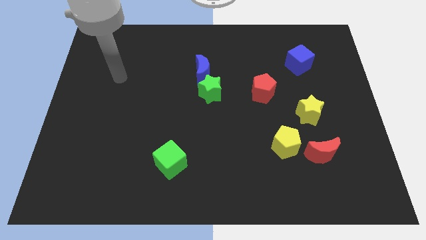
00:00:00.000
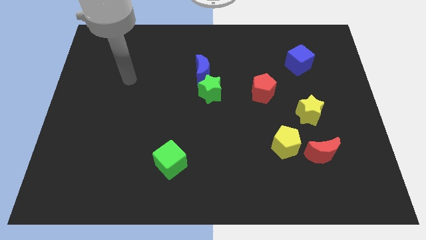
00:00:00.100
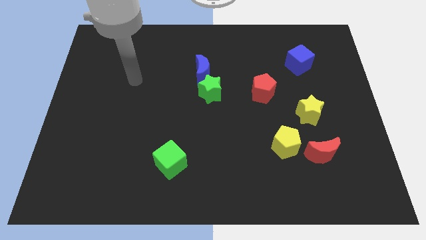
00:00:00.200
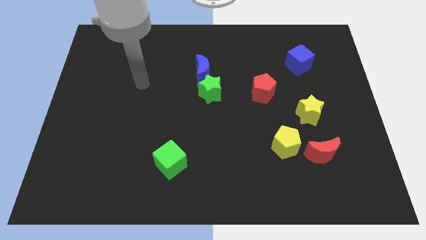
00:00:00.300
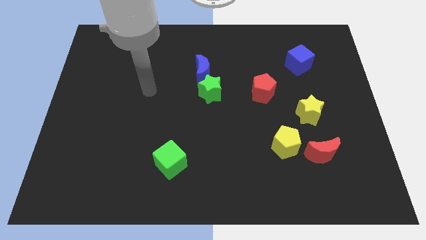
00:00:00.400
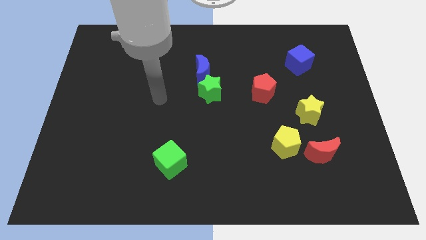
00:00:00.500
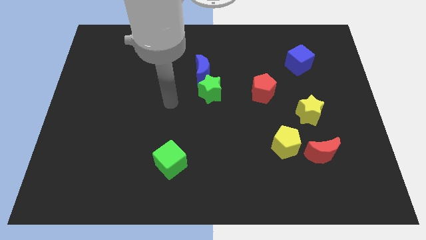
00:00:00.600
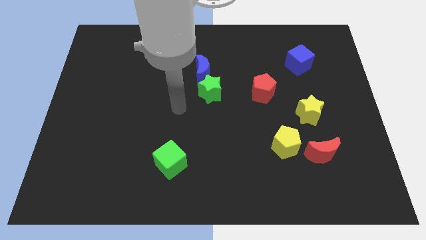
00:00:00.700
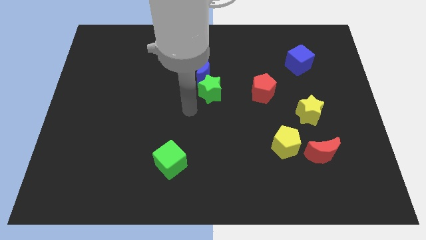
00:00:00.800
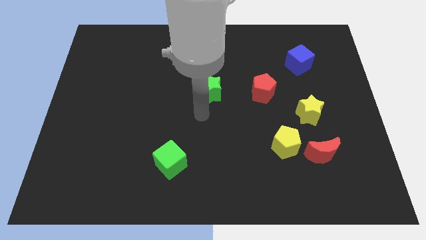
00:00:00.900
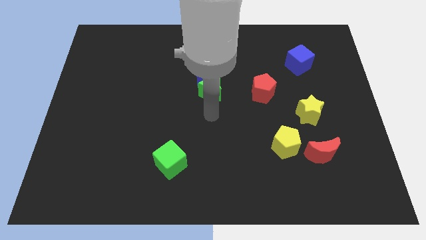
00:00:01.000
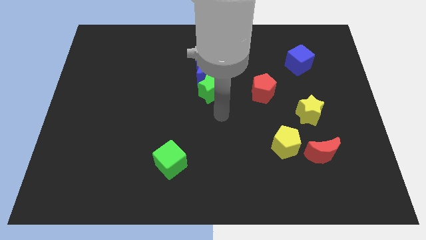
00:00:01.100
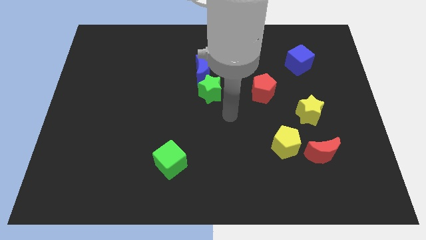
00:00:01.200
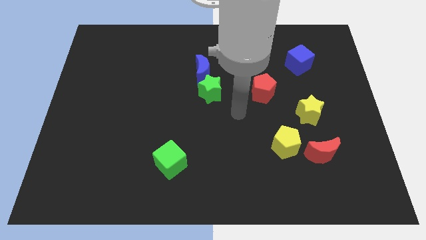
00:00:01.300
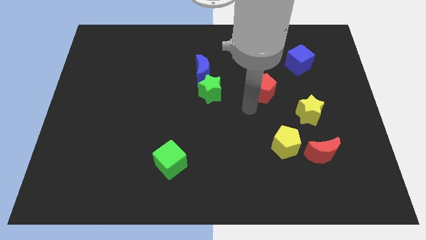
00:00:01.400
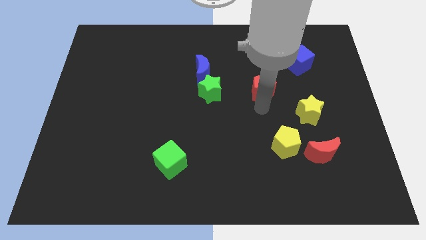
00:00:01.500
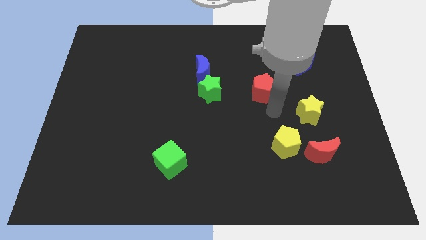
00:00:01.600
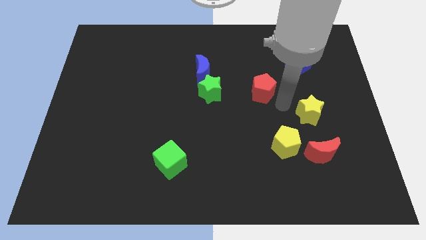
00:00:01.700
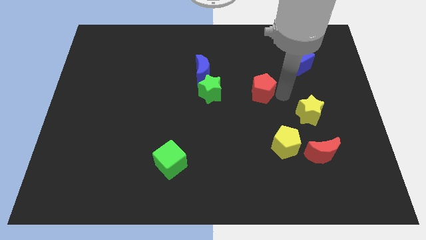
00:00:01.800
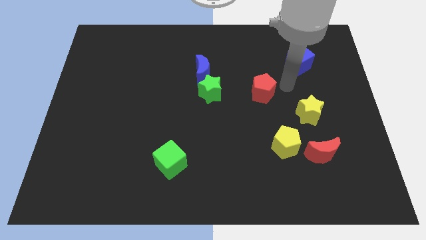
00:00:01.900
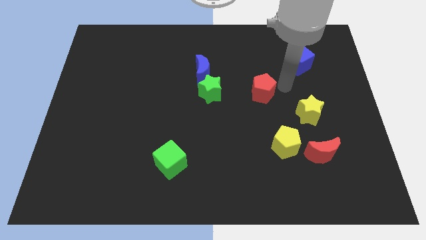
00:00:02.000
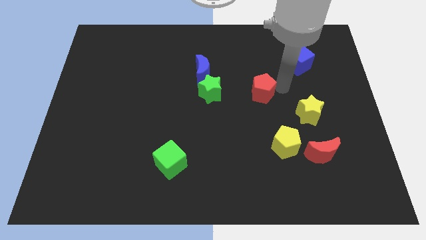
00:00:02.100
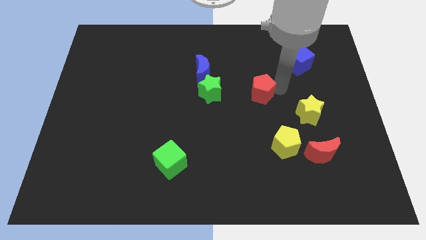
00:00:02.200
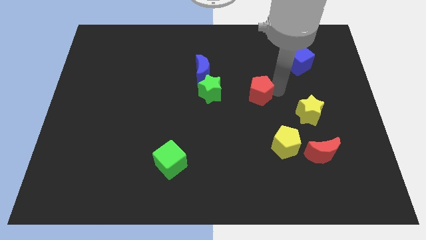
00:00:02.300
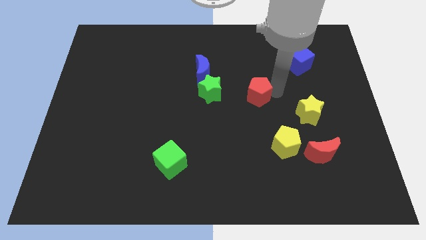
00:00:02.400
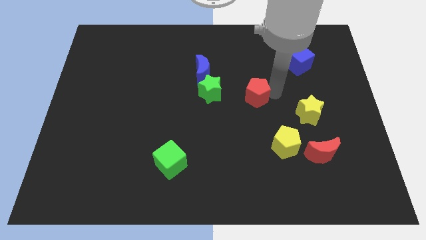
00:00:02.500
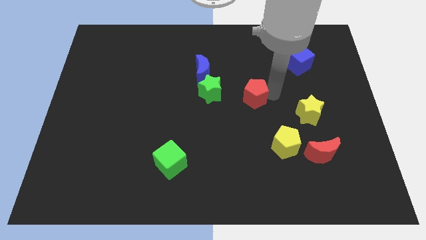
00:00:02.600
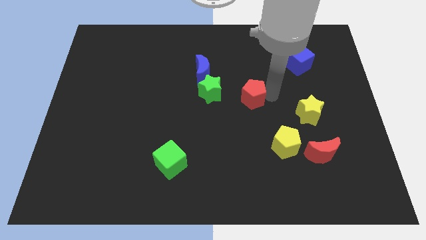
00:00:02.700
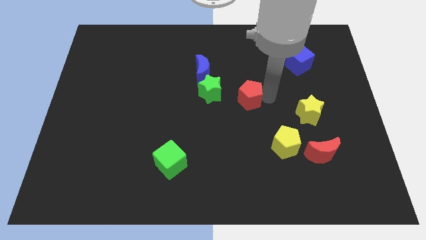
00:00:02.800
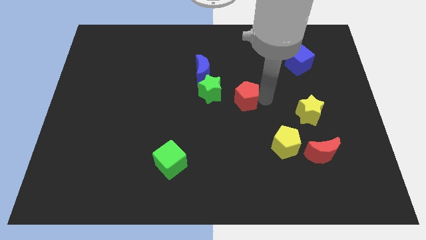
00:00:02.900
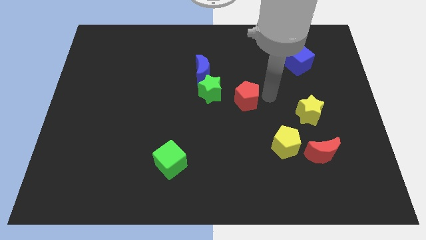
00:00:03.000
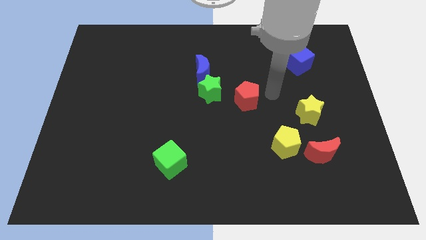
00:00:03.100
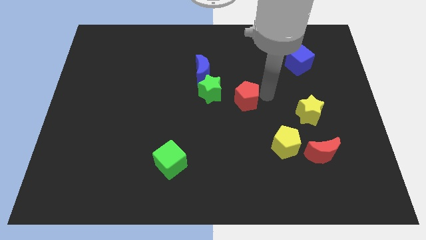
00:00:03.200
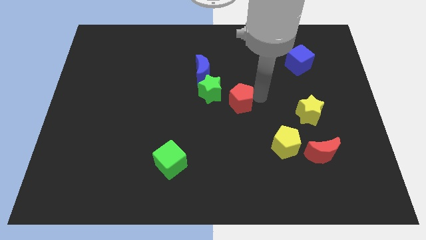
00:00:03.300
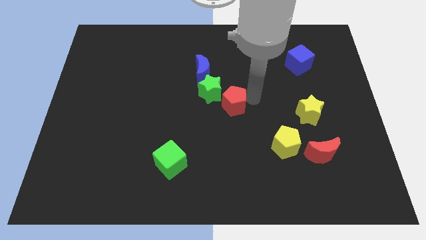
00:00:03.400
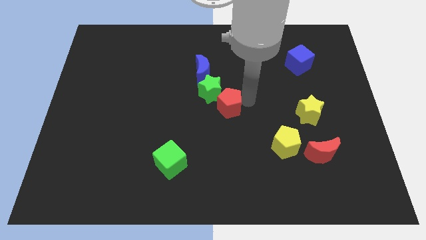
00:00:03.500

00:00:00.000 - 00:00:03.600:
slightly slide the red pentagon to the left

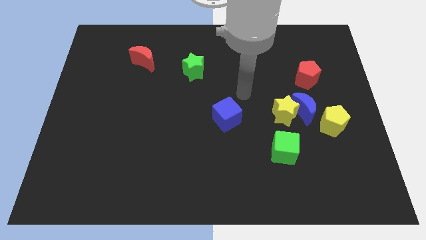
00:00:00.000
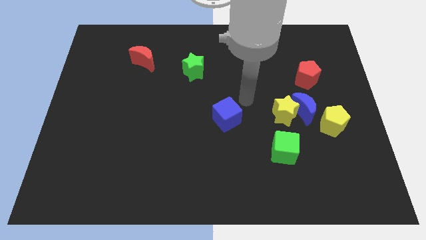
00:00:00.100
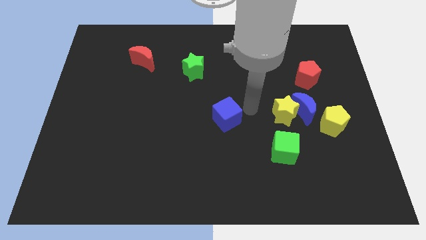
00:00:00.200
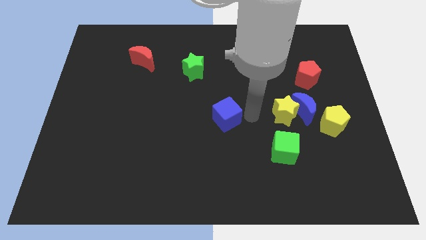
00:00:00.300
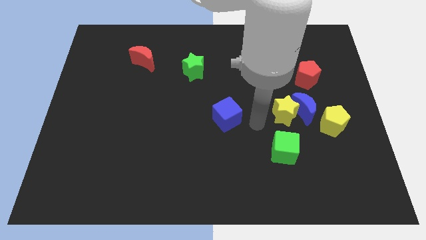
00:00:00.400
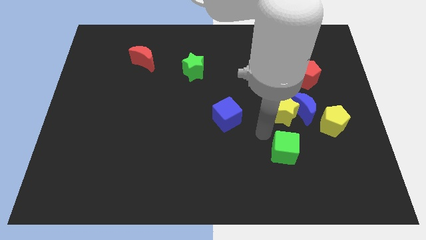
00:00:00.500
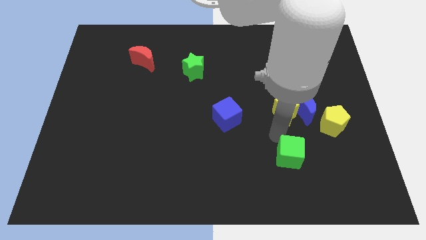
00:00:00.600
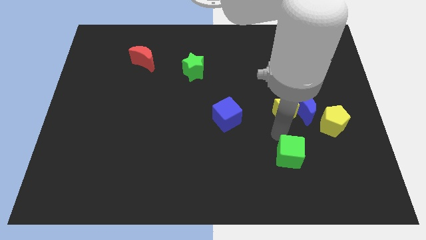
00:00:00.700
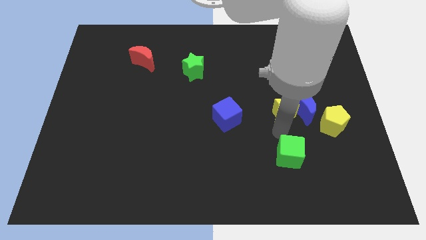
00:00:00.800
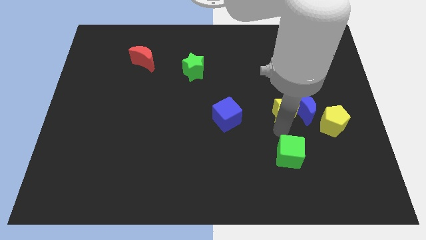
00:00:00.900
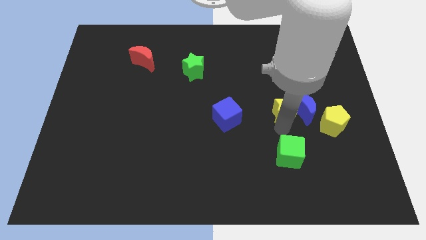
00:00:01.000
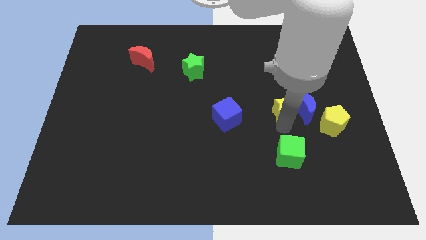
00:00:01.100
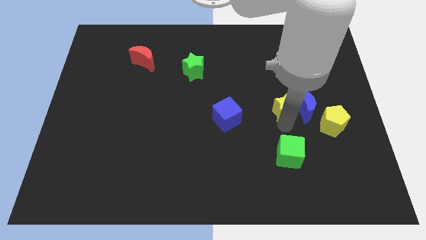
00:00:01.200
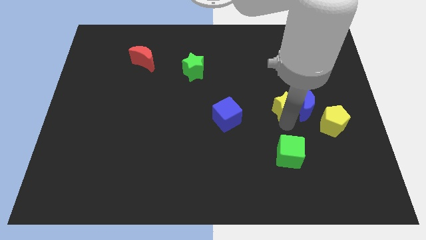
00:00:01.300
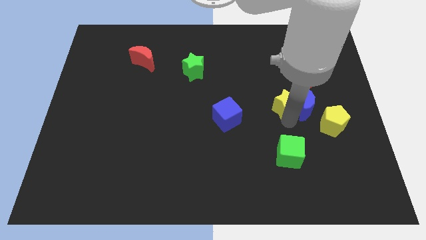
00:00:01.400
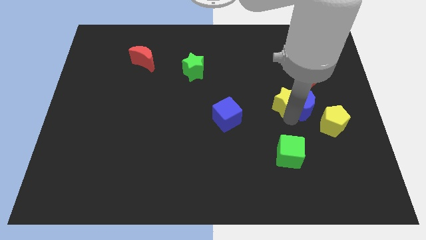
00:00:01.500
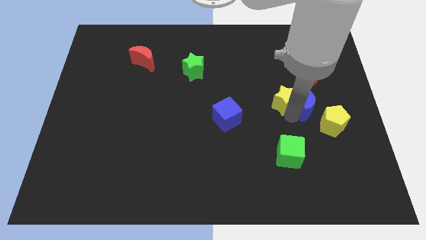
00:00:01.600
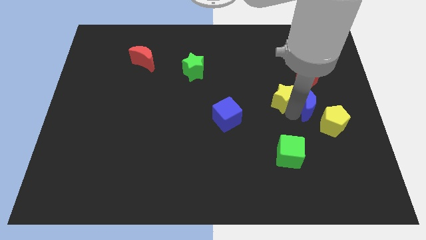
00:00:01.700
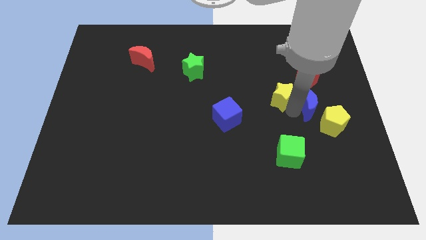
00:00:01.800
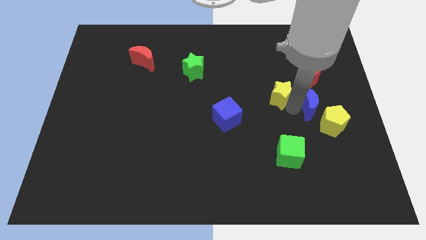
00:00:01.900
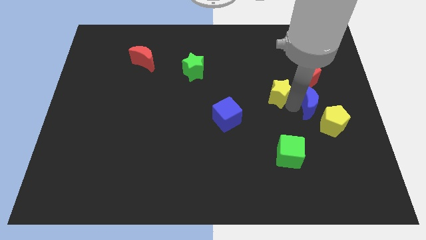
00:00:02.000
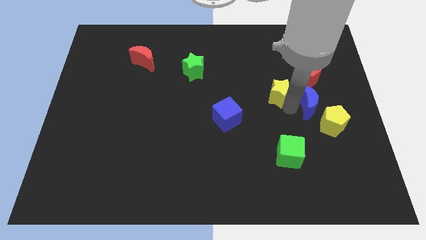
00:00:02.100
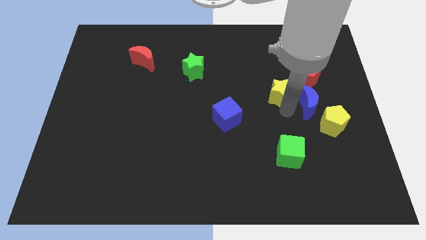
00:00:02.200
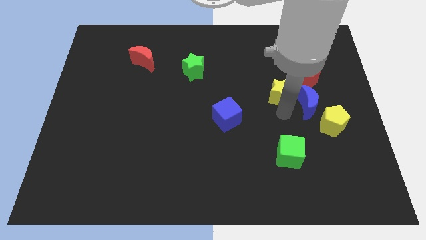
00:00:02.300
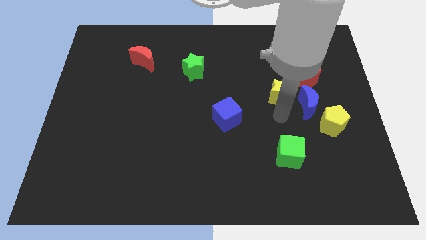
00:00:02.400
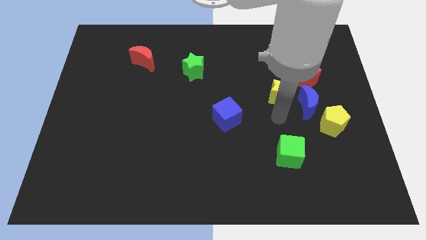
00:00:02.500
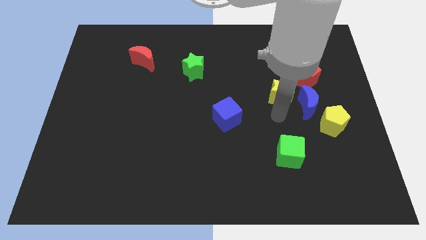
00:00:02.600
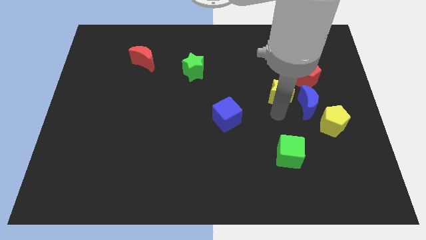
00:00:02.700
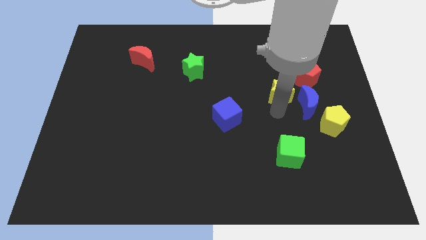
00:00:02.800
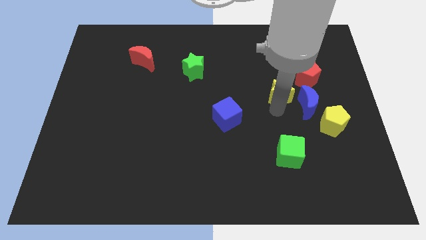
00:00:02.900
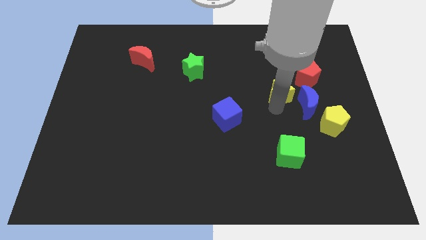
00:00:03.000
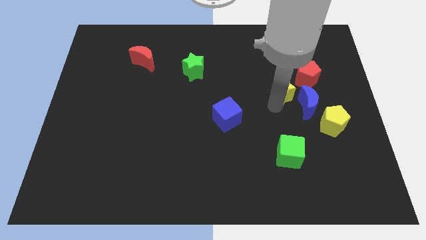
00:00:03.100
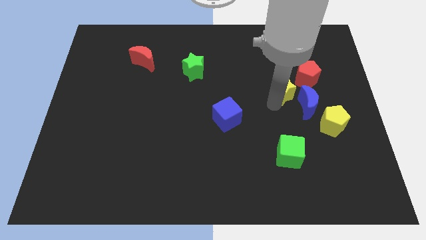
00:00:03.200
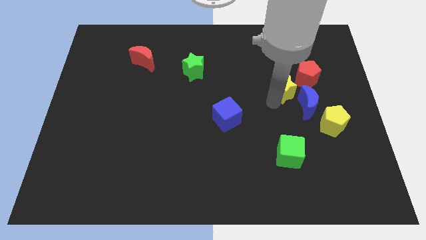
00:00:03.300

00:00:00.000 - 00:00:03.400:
move the yellow star a little bit upwards

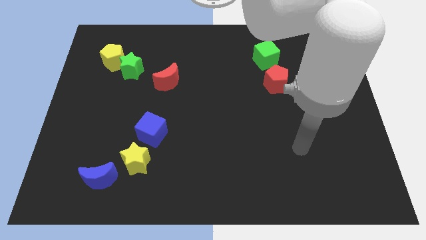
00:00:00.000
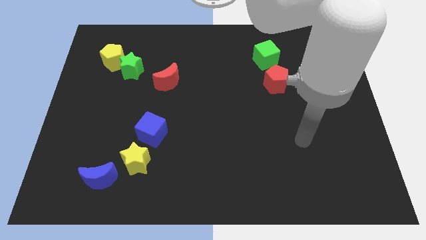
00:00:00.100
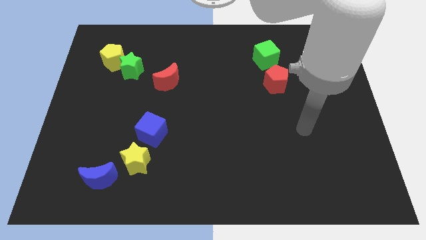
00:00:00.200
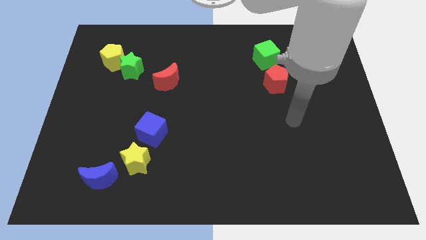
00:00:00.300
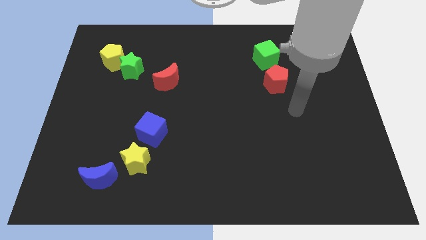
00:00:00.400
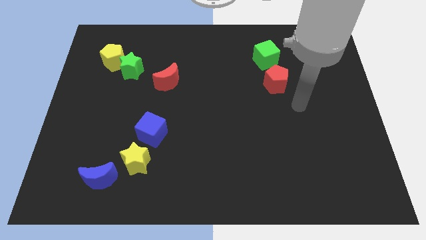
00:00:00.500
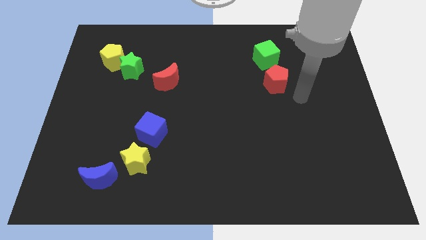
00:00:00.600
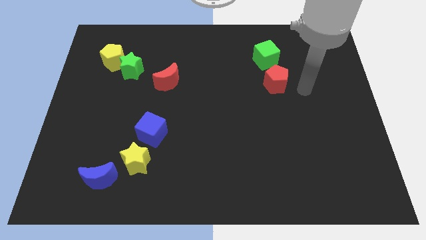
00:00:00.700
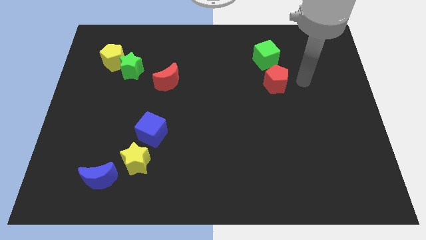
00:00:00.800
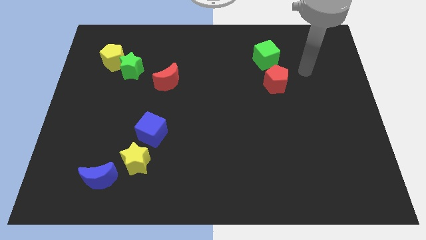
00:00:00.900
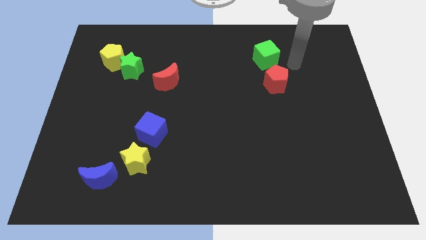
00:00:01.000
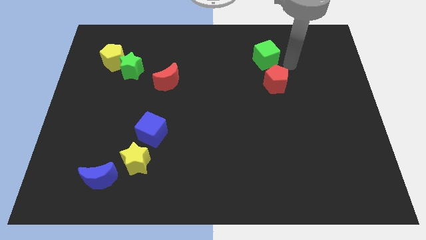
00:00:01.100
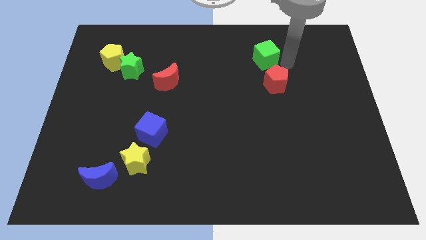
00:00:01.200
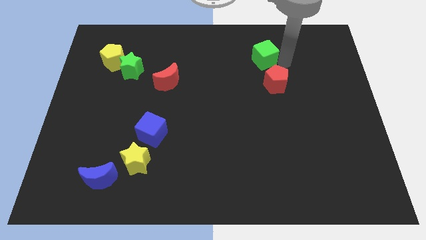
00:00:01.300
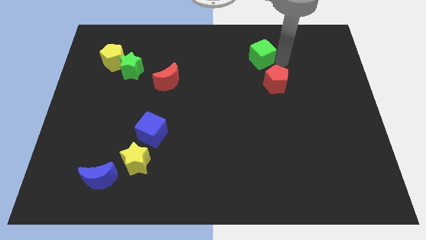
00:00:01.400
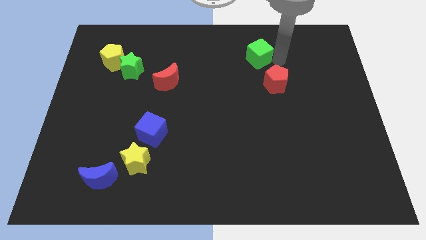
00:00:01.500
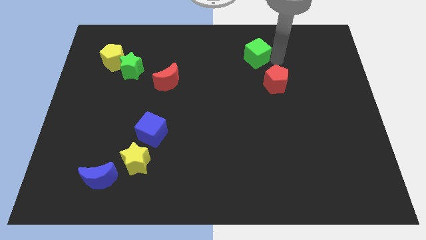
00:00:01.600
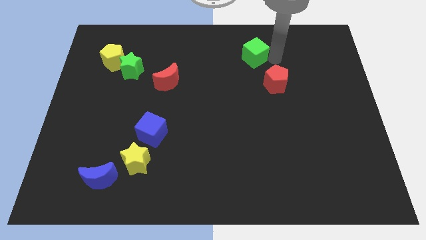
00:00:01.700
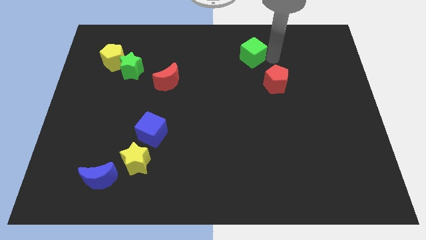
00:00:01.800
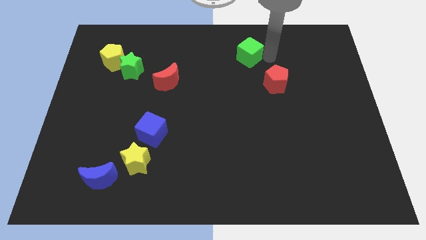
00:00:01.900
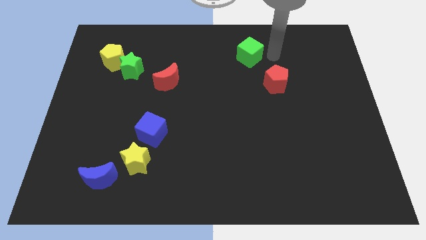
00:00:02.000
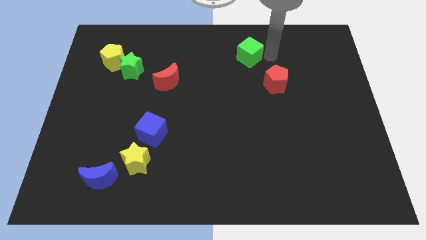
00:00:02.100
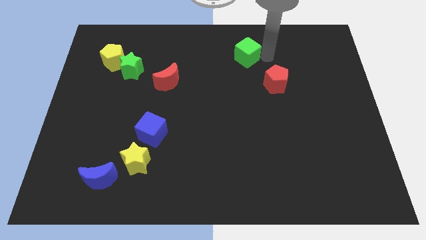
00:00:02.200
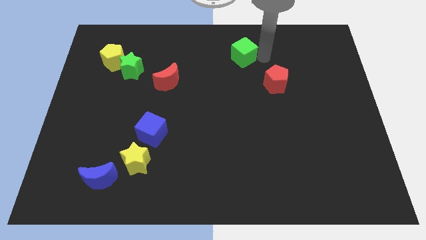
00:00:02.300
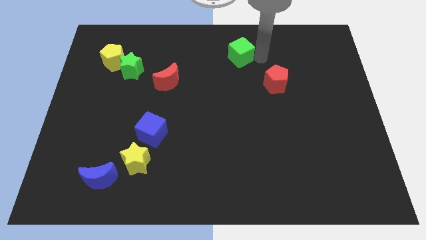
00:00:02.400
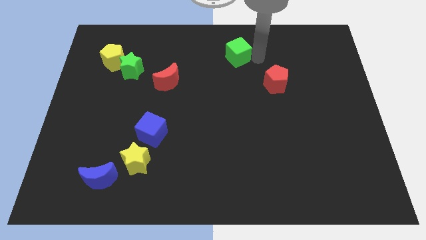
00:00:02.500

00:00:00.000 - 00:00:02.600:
move the green cube a bit to the left
